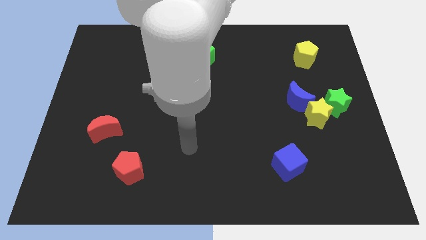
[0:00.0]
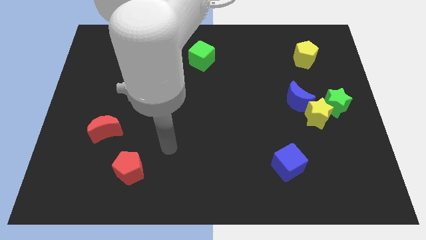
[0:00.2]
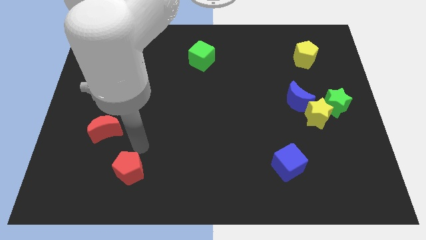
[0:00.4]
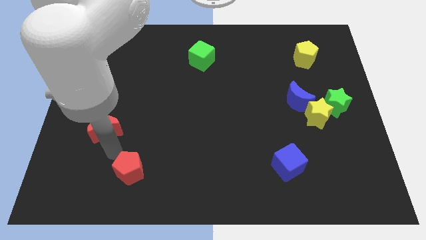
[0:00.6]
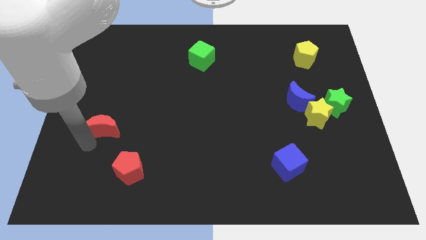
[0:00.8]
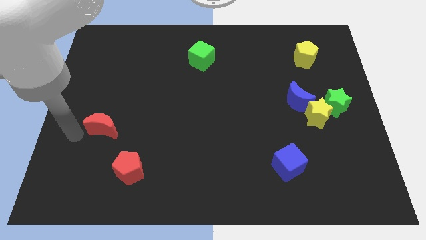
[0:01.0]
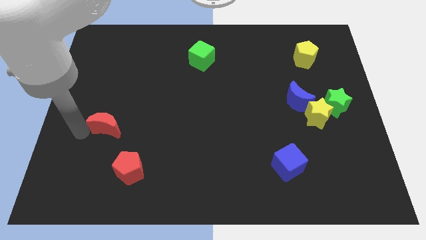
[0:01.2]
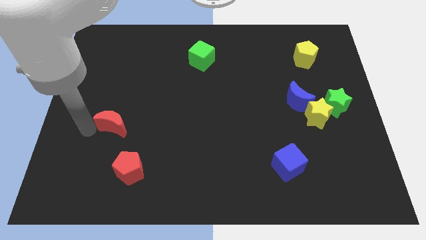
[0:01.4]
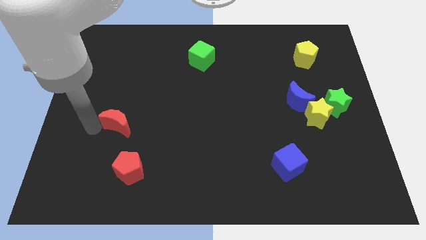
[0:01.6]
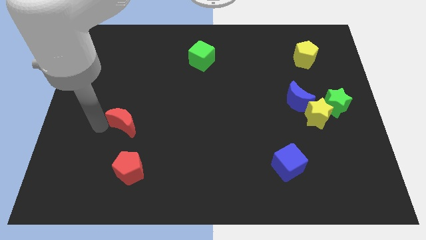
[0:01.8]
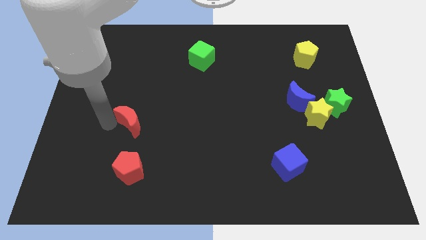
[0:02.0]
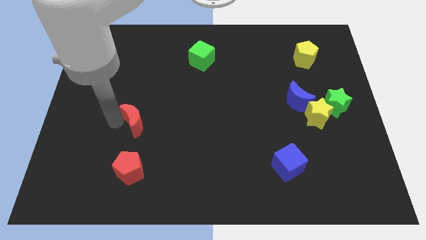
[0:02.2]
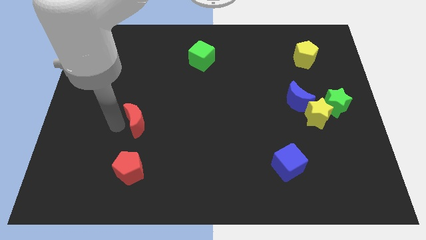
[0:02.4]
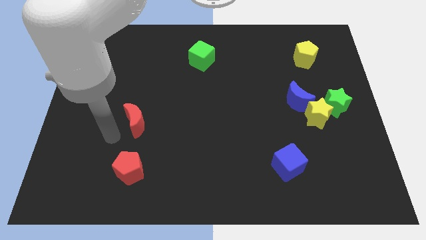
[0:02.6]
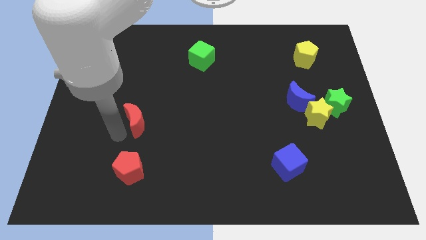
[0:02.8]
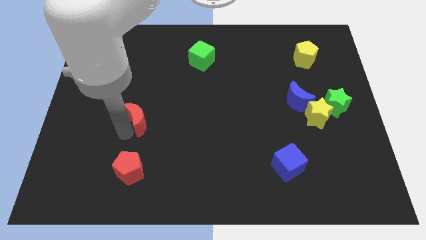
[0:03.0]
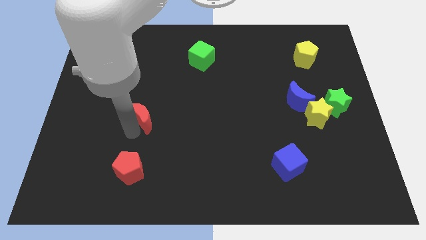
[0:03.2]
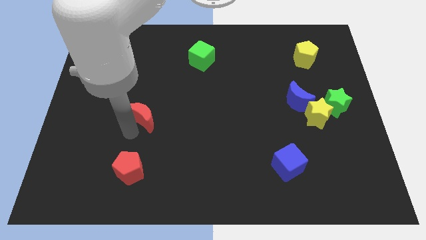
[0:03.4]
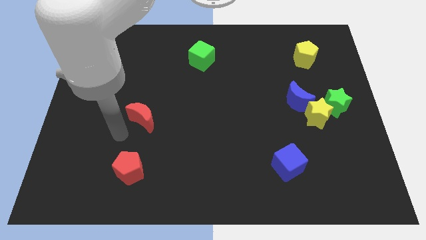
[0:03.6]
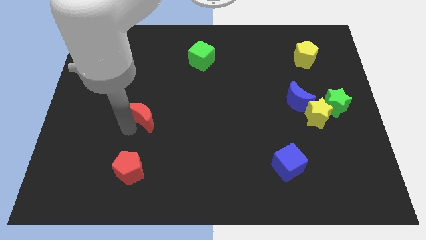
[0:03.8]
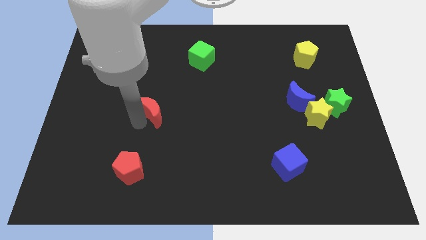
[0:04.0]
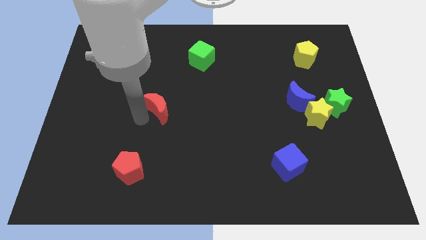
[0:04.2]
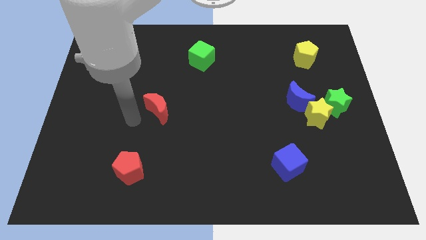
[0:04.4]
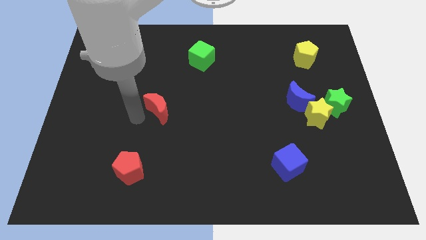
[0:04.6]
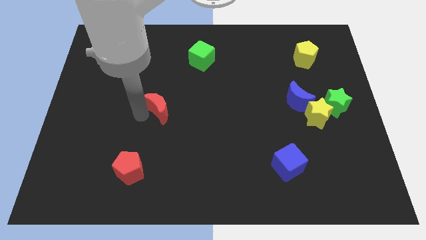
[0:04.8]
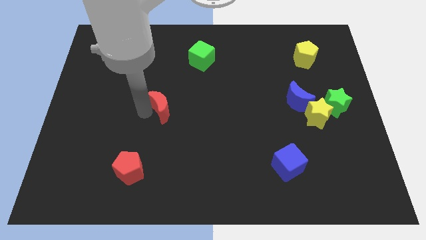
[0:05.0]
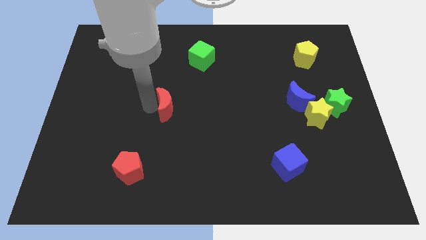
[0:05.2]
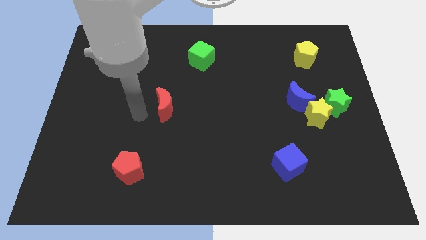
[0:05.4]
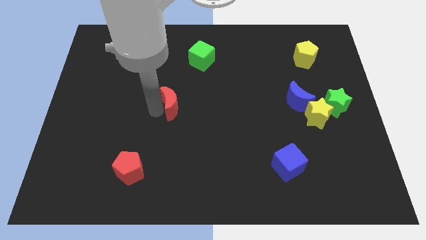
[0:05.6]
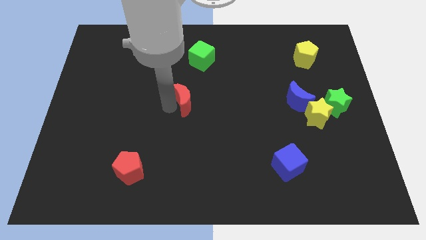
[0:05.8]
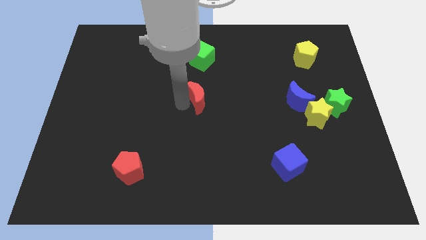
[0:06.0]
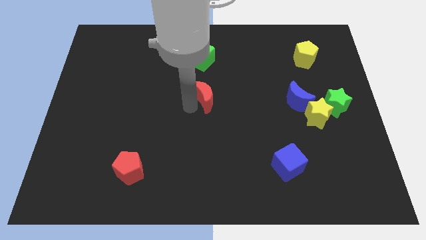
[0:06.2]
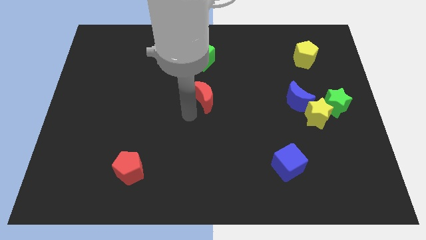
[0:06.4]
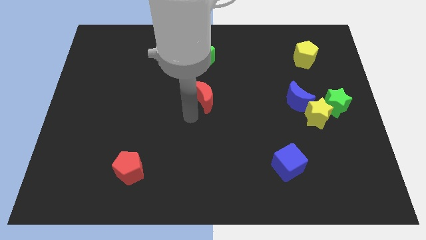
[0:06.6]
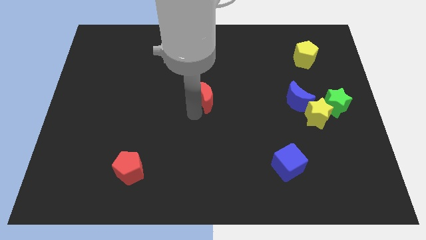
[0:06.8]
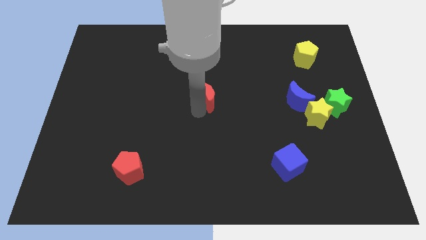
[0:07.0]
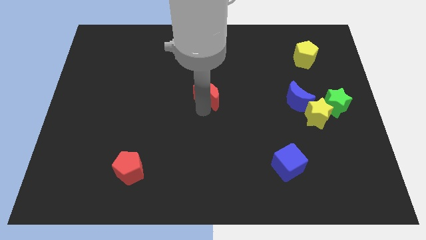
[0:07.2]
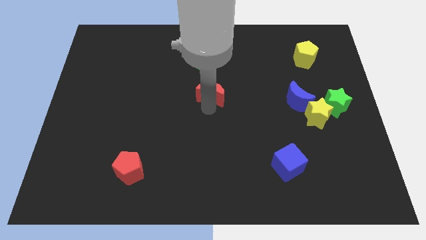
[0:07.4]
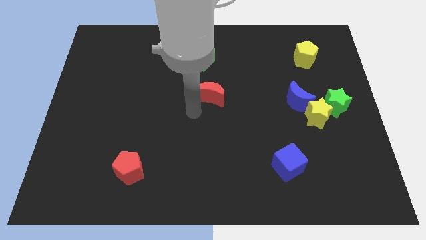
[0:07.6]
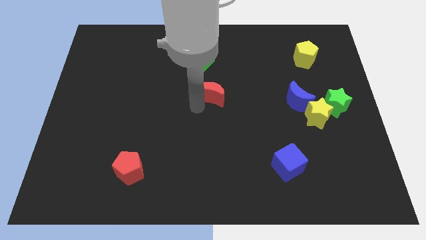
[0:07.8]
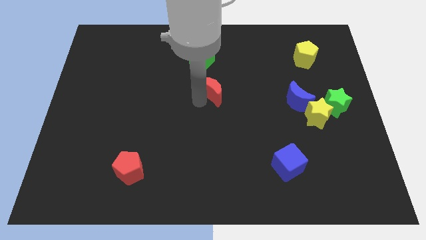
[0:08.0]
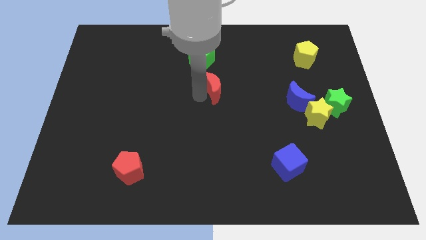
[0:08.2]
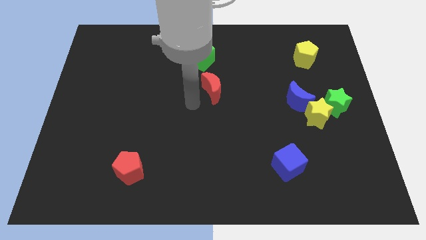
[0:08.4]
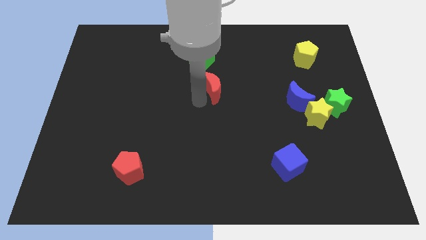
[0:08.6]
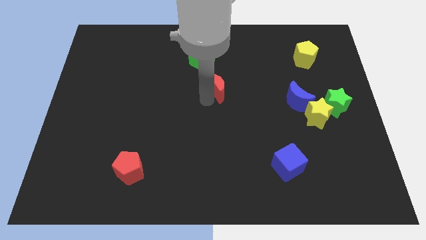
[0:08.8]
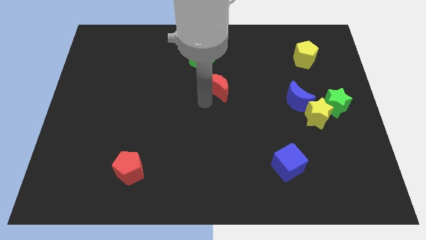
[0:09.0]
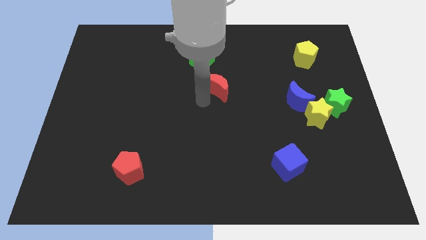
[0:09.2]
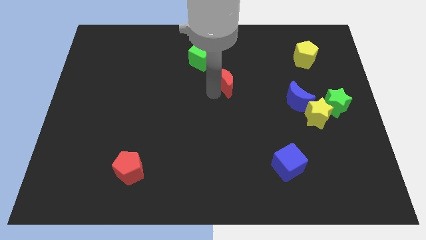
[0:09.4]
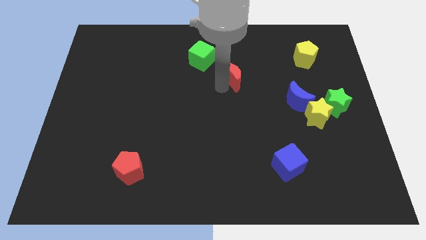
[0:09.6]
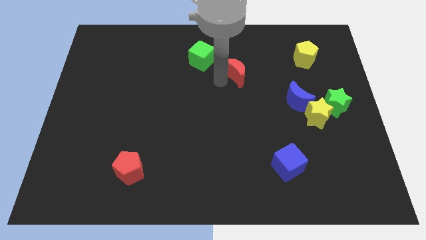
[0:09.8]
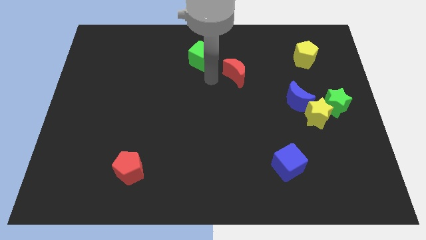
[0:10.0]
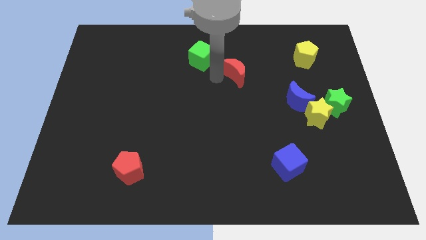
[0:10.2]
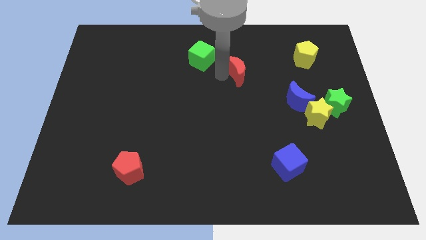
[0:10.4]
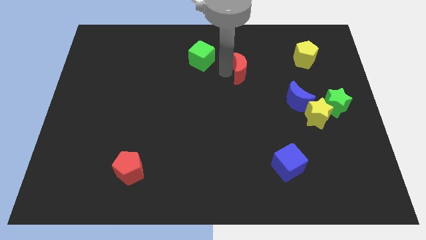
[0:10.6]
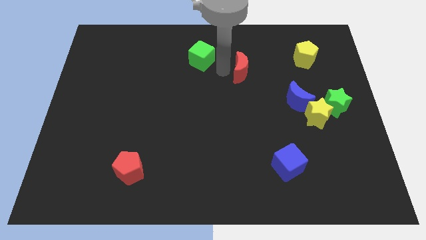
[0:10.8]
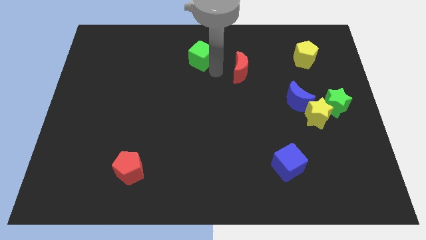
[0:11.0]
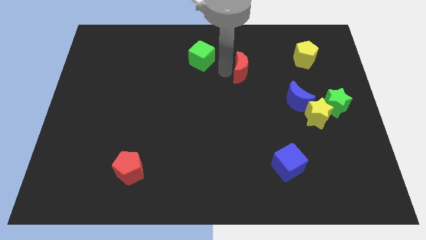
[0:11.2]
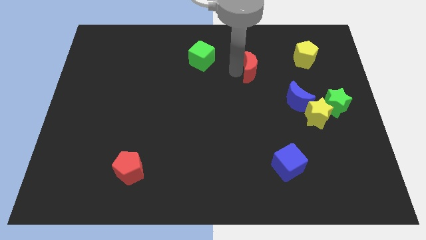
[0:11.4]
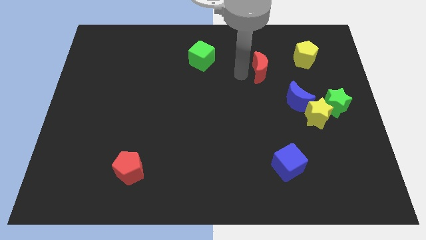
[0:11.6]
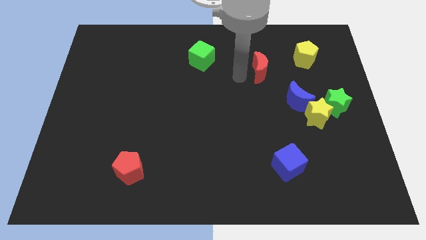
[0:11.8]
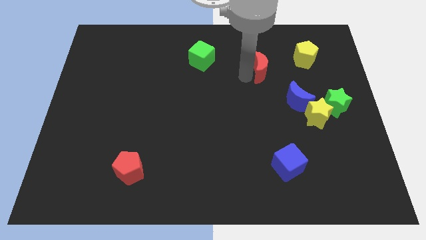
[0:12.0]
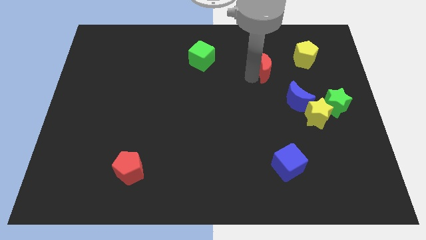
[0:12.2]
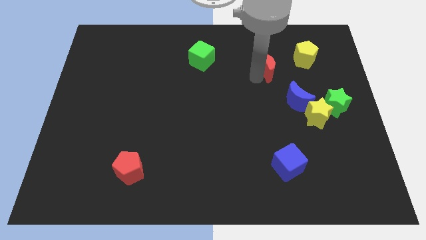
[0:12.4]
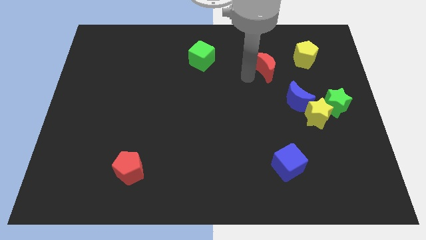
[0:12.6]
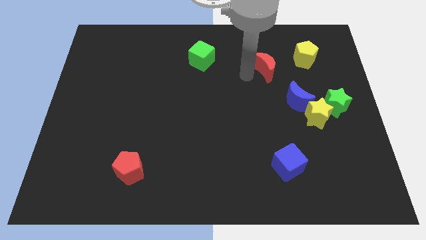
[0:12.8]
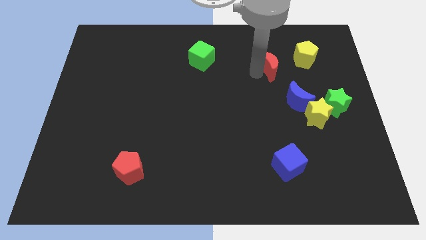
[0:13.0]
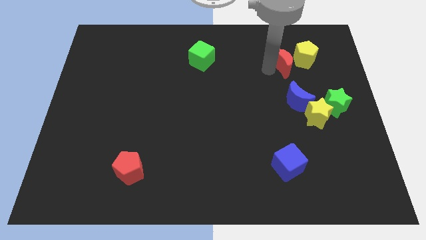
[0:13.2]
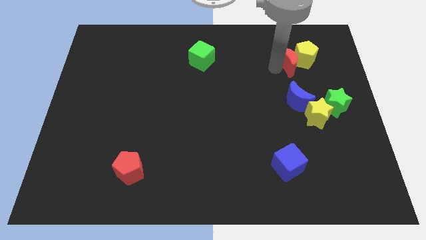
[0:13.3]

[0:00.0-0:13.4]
push the red moon towards the yellow pentagon

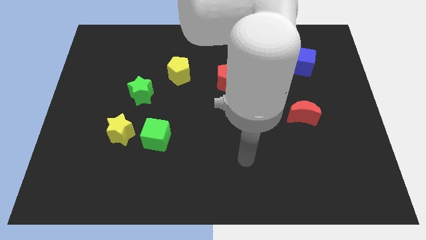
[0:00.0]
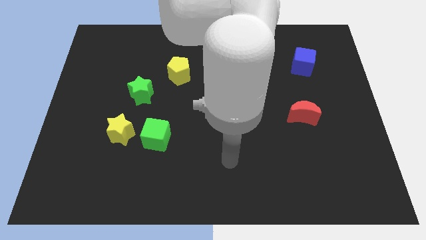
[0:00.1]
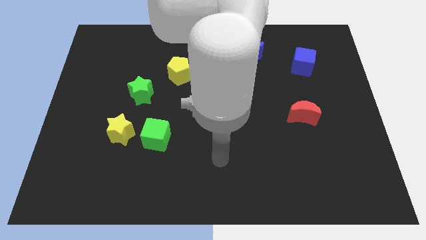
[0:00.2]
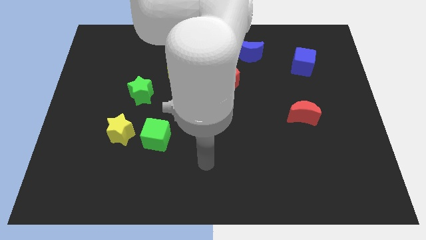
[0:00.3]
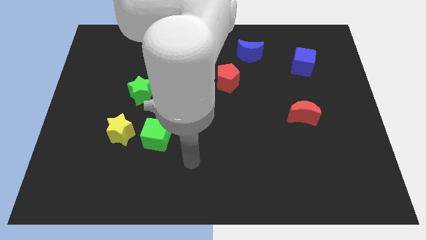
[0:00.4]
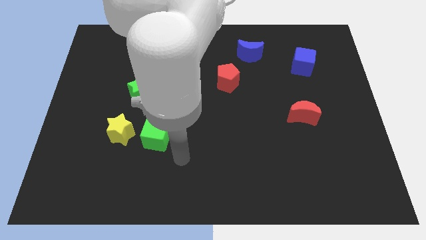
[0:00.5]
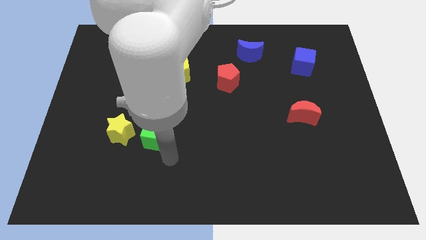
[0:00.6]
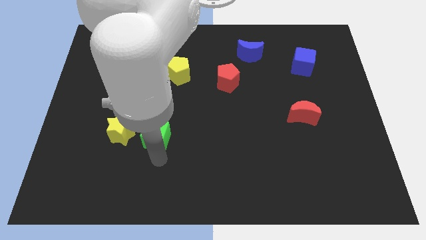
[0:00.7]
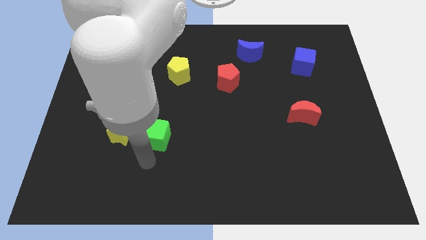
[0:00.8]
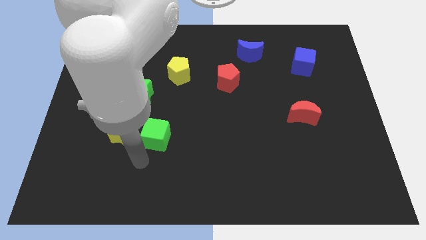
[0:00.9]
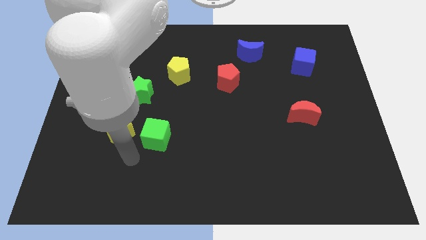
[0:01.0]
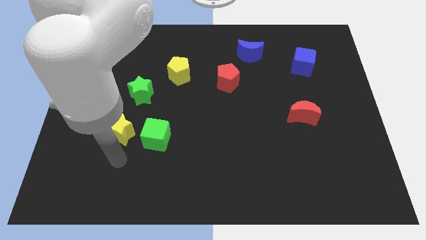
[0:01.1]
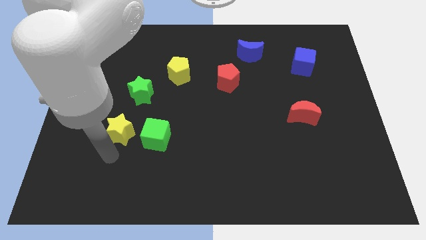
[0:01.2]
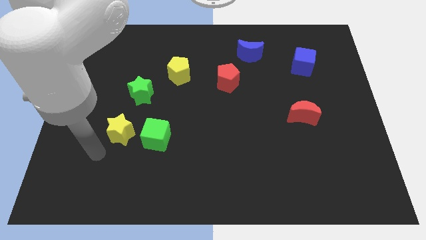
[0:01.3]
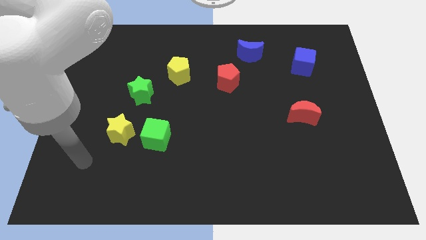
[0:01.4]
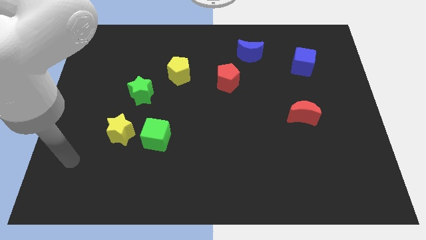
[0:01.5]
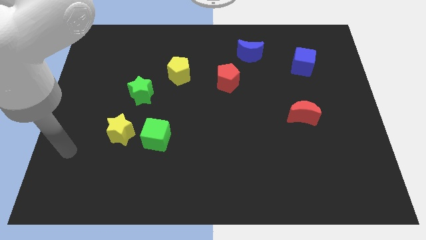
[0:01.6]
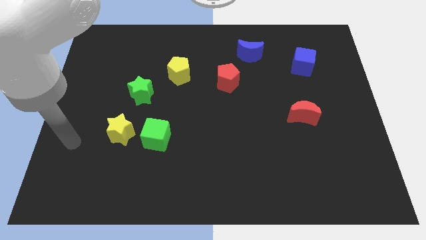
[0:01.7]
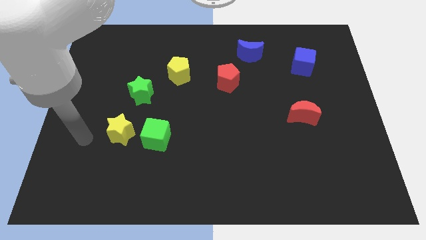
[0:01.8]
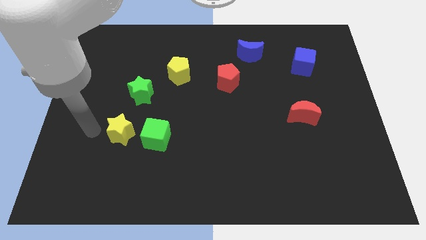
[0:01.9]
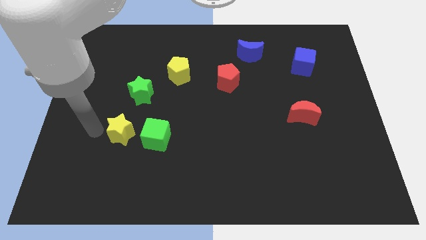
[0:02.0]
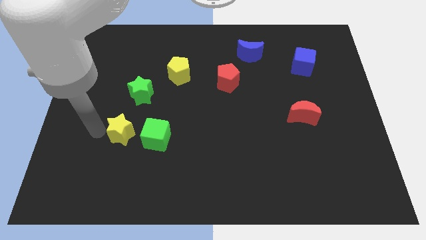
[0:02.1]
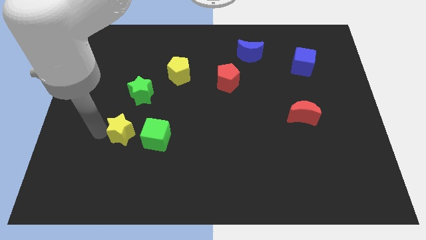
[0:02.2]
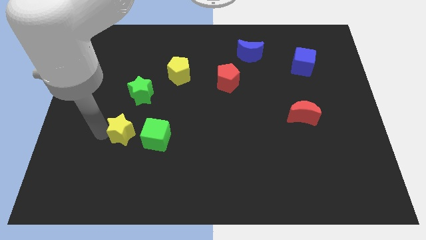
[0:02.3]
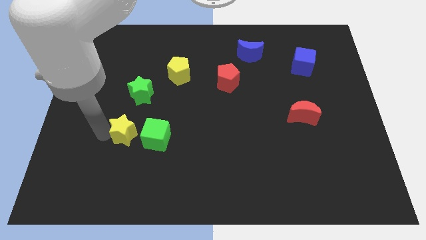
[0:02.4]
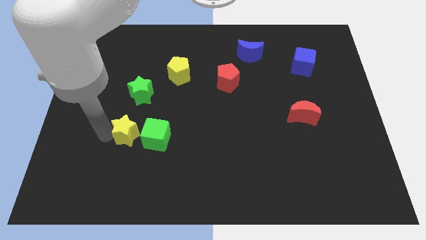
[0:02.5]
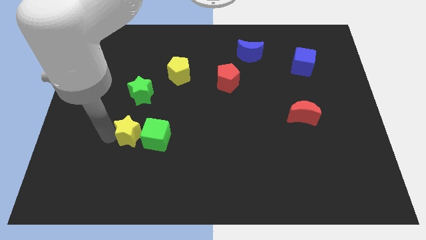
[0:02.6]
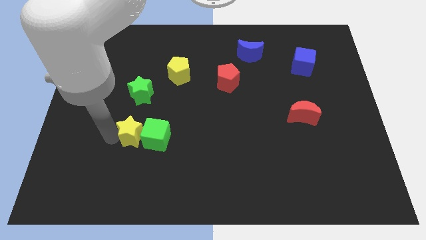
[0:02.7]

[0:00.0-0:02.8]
put the yellow star close to the green cube
